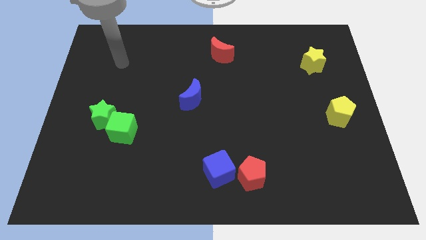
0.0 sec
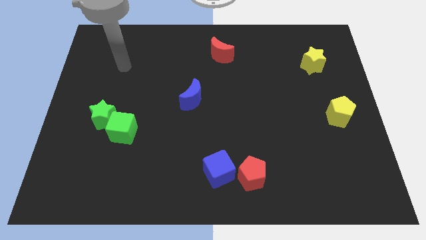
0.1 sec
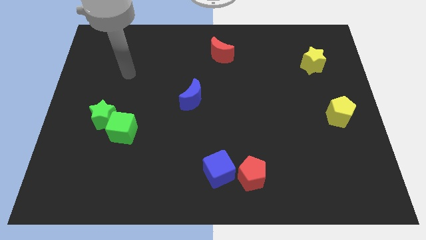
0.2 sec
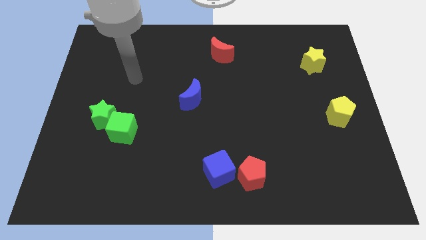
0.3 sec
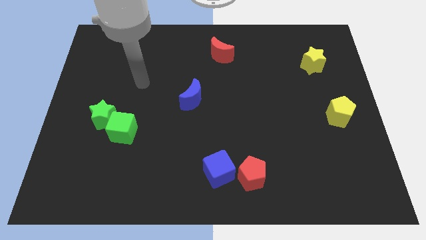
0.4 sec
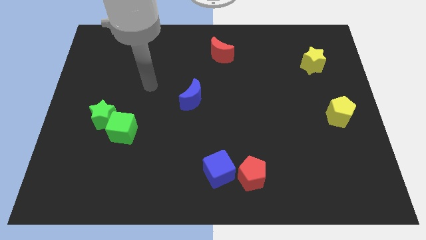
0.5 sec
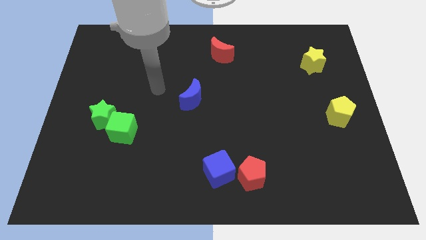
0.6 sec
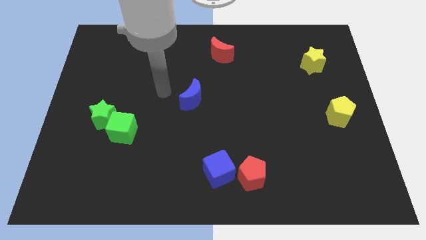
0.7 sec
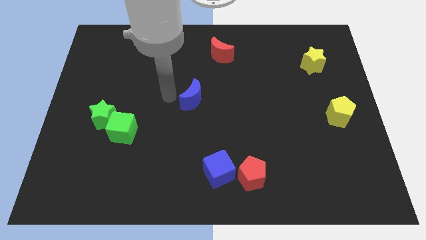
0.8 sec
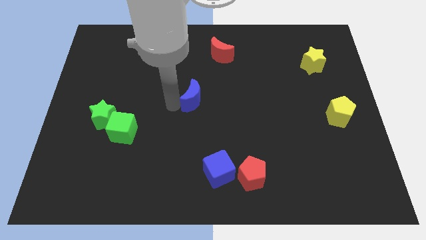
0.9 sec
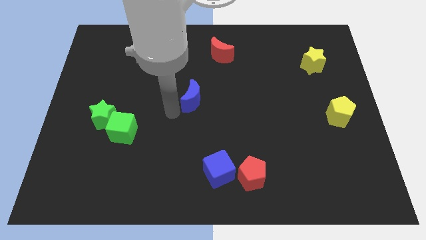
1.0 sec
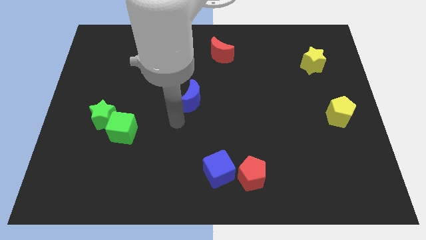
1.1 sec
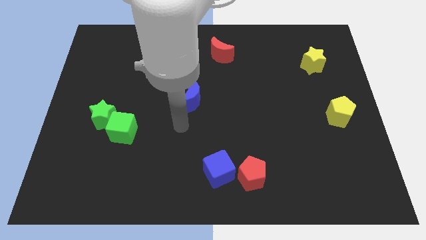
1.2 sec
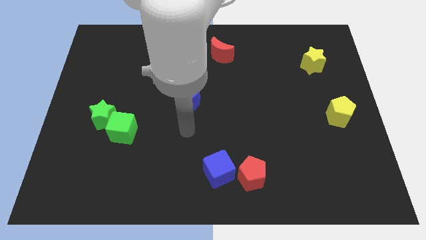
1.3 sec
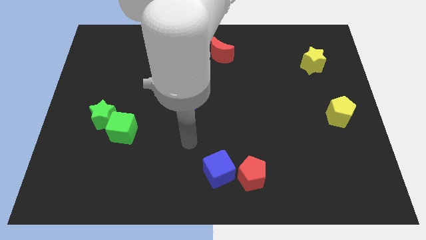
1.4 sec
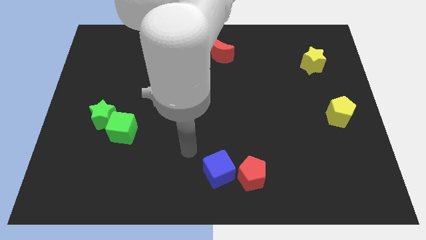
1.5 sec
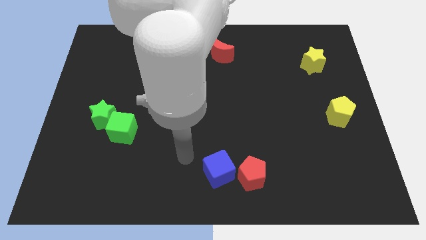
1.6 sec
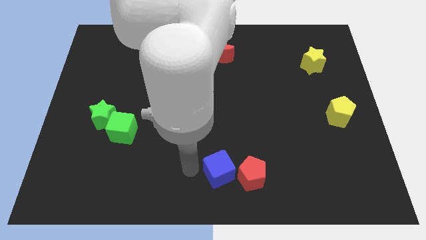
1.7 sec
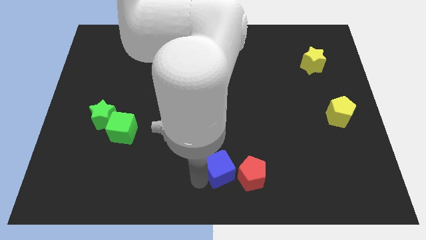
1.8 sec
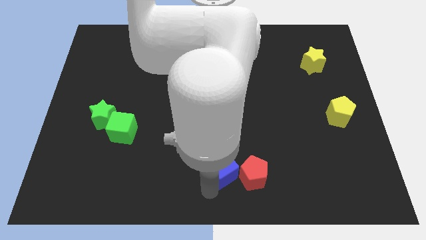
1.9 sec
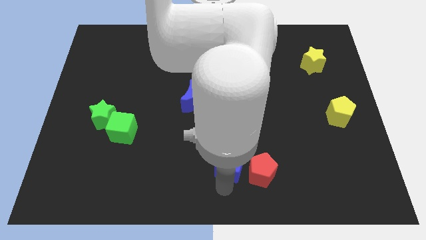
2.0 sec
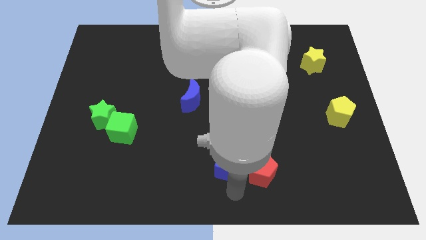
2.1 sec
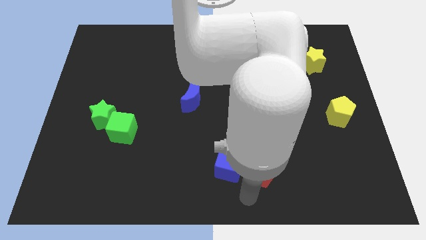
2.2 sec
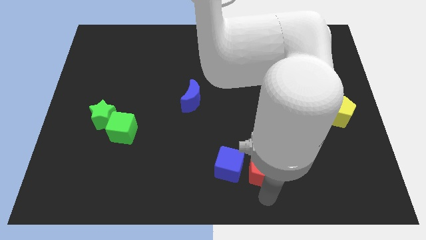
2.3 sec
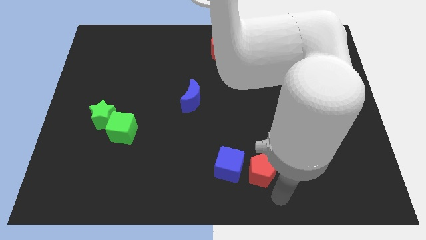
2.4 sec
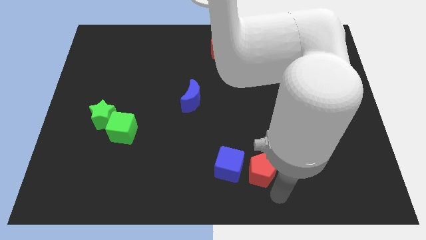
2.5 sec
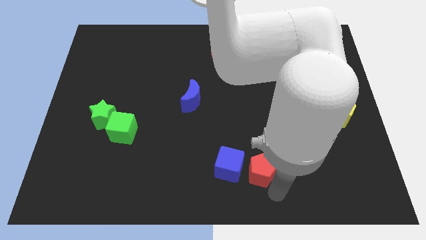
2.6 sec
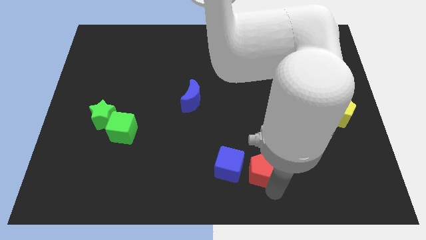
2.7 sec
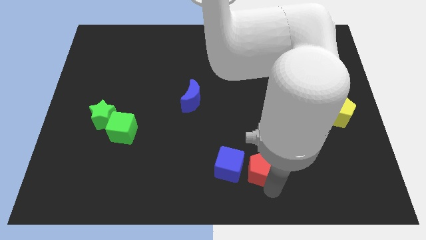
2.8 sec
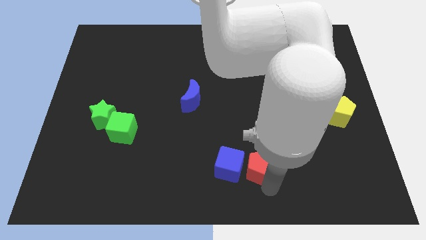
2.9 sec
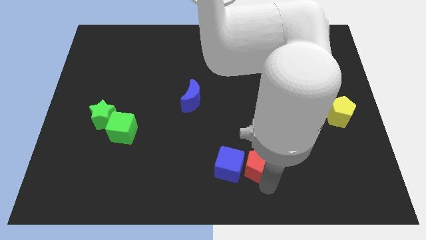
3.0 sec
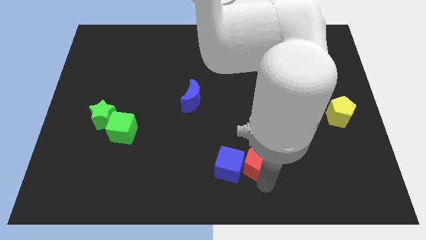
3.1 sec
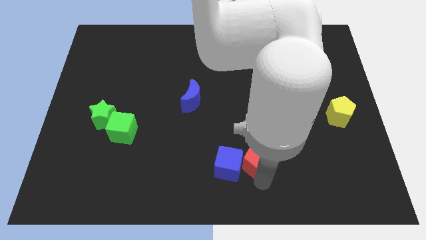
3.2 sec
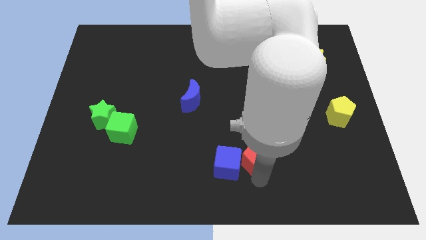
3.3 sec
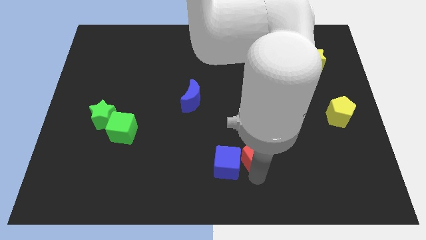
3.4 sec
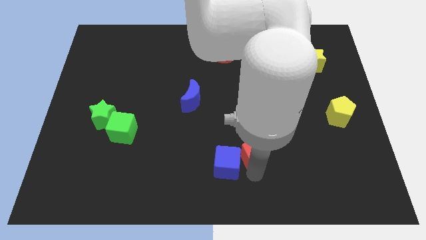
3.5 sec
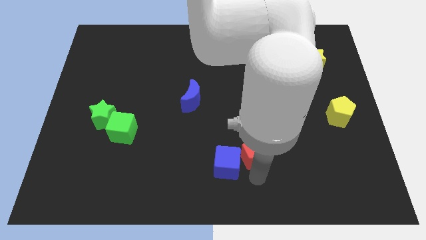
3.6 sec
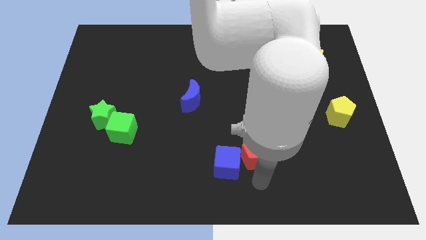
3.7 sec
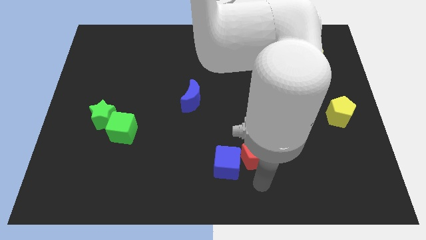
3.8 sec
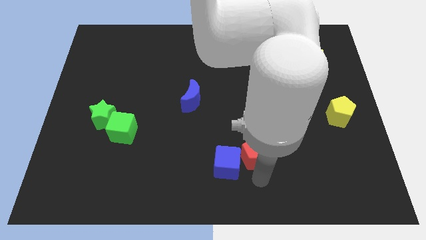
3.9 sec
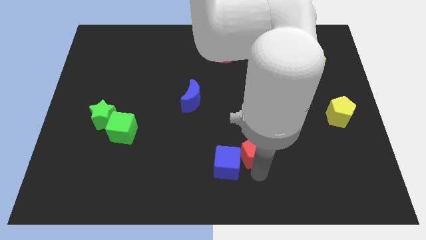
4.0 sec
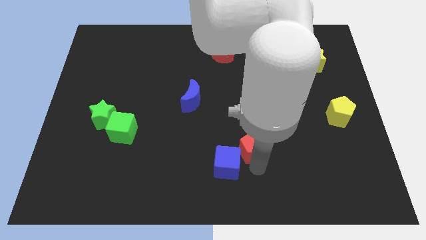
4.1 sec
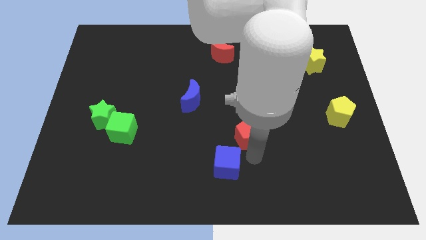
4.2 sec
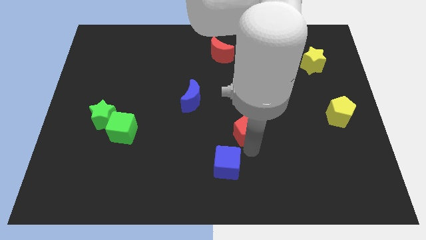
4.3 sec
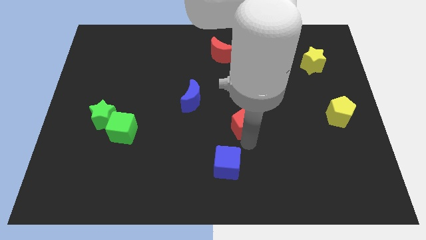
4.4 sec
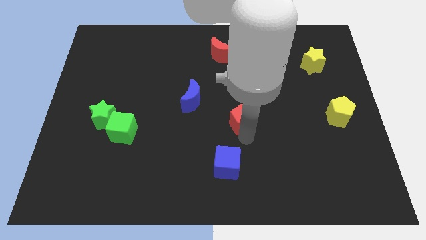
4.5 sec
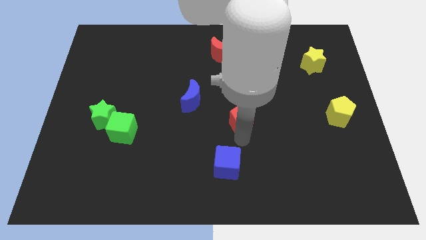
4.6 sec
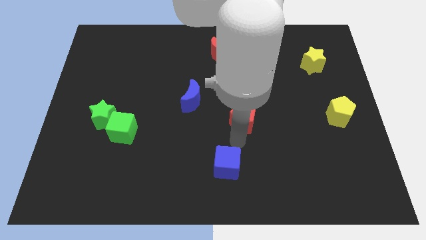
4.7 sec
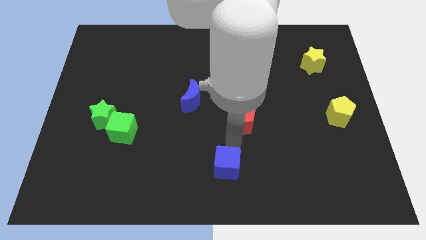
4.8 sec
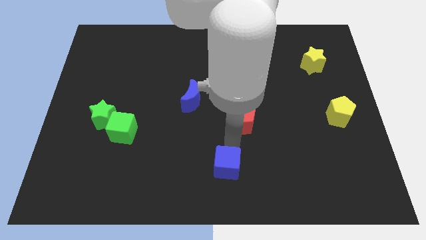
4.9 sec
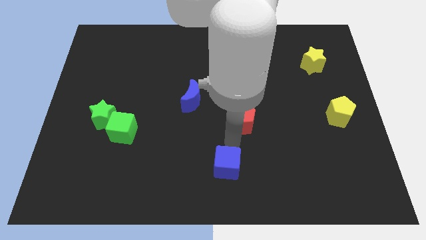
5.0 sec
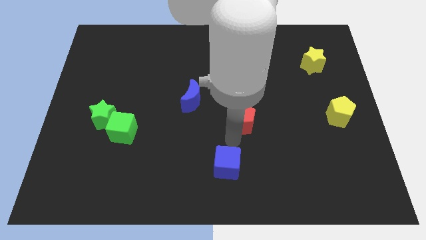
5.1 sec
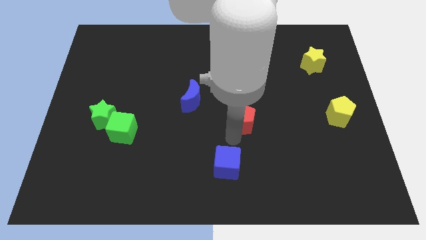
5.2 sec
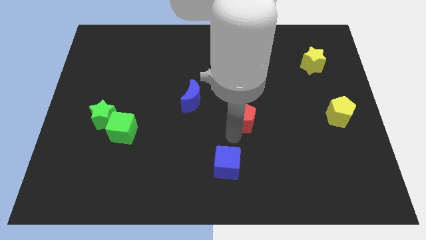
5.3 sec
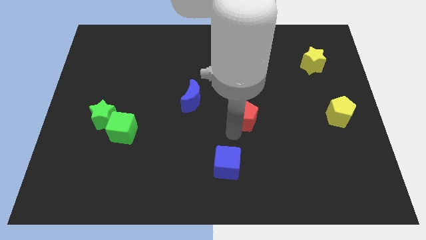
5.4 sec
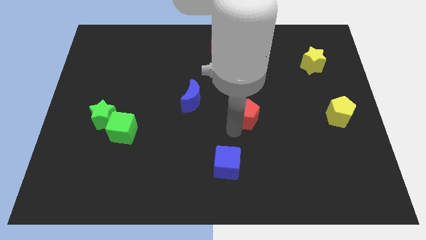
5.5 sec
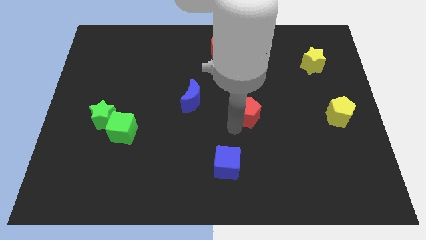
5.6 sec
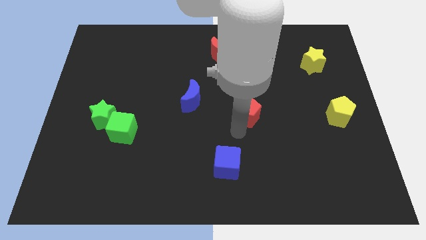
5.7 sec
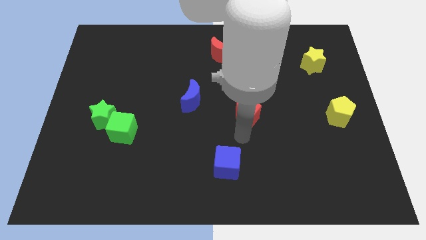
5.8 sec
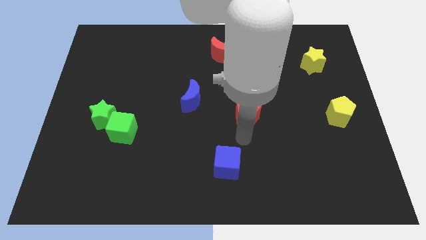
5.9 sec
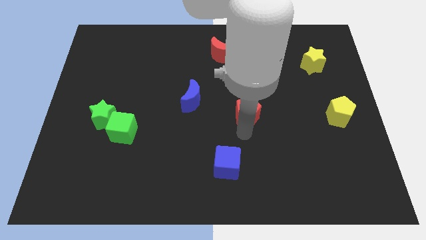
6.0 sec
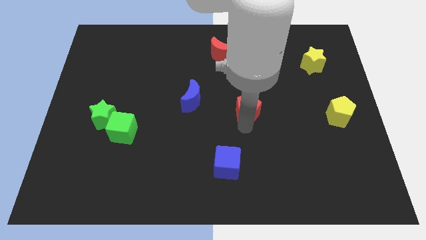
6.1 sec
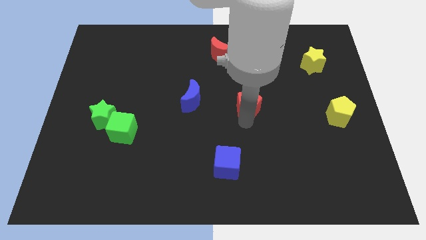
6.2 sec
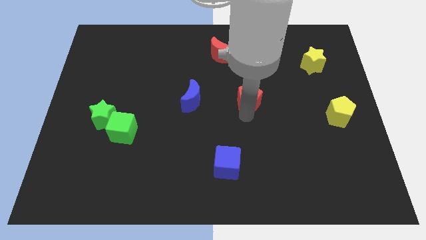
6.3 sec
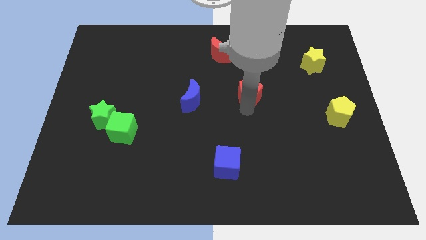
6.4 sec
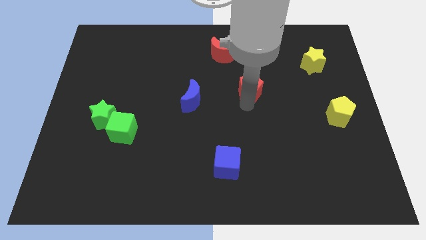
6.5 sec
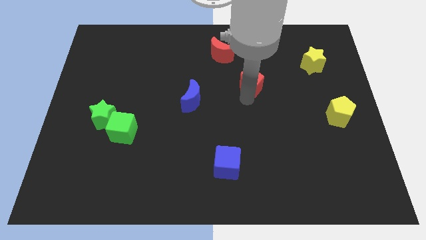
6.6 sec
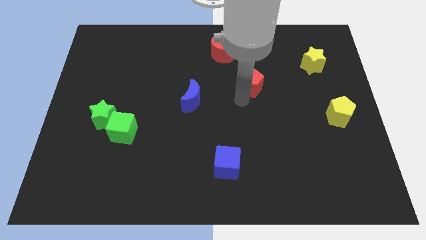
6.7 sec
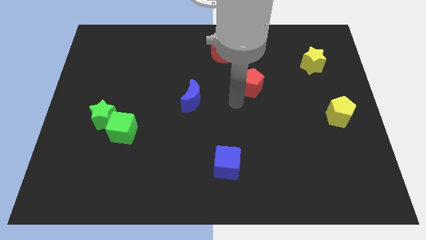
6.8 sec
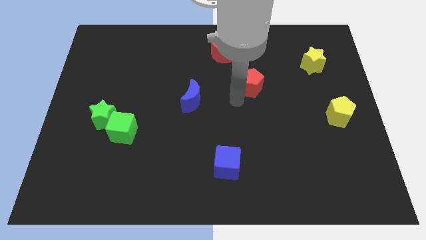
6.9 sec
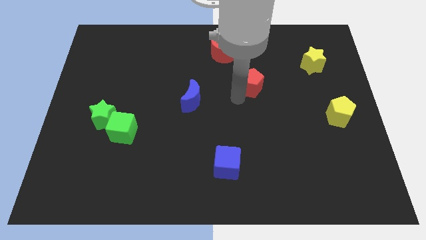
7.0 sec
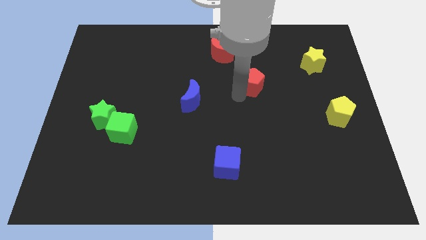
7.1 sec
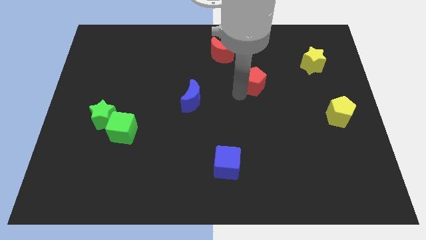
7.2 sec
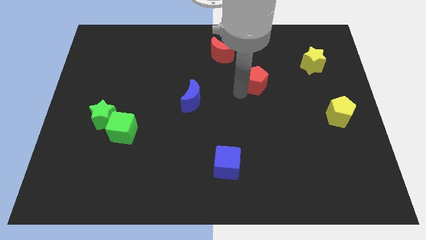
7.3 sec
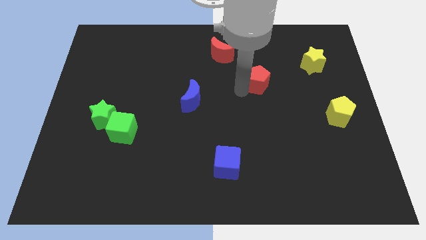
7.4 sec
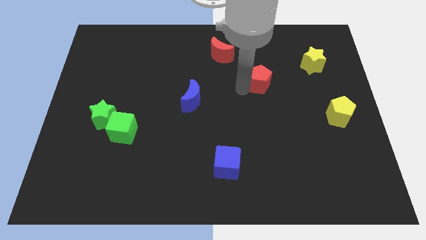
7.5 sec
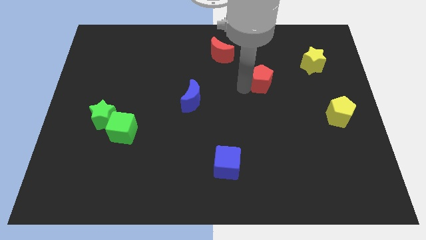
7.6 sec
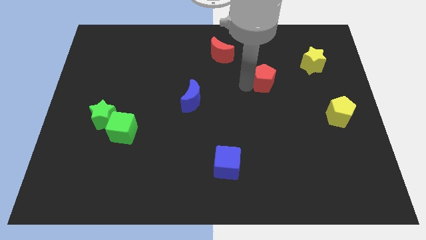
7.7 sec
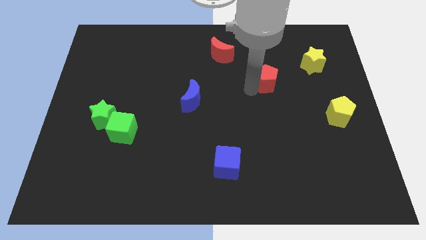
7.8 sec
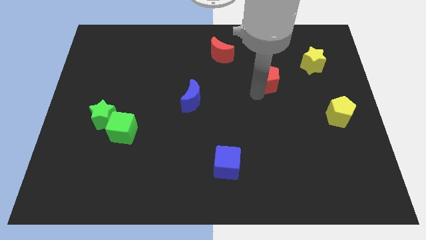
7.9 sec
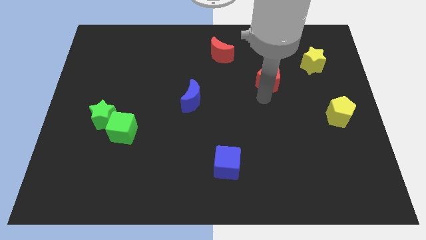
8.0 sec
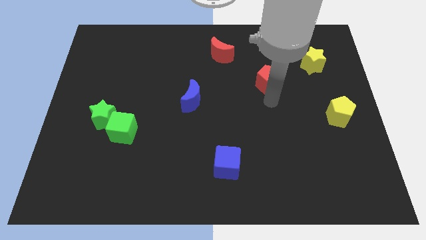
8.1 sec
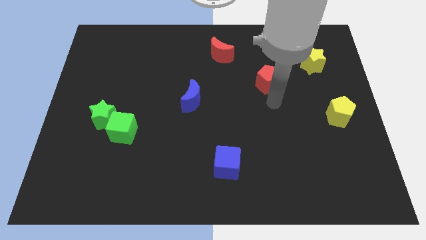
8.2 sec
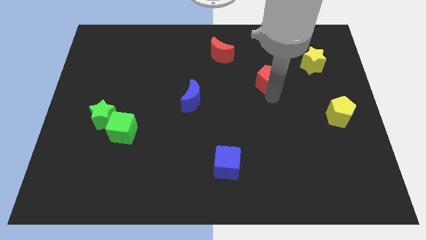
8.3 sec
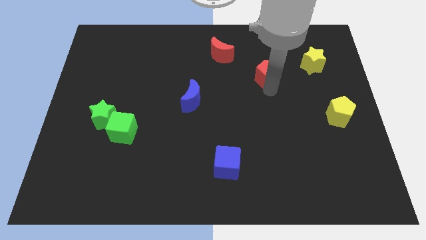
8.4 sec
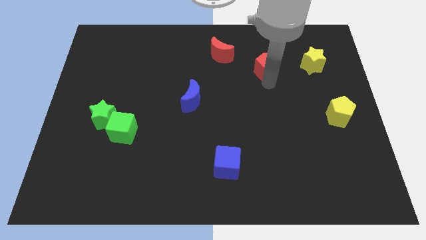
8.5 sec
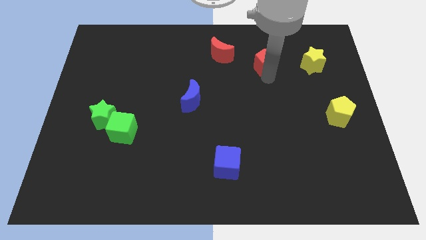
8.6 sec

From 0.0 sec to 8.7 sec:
push the red pentagon to the right side of the red moon
